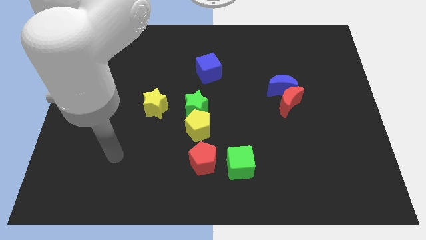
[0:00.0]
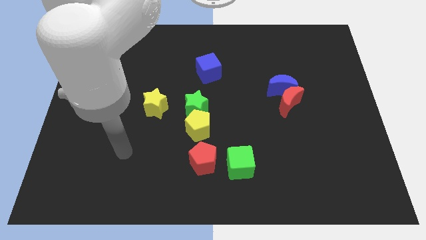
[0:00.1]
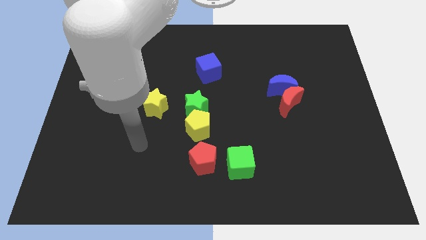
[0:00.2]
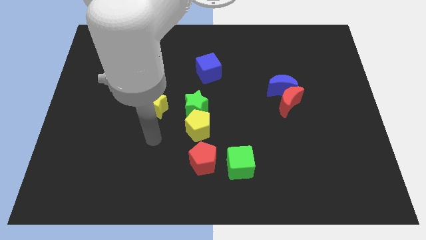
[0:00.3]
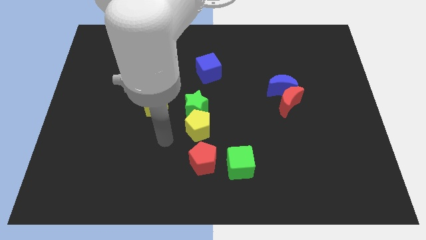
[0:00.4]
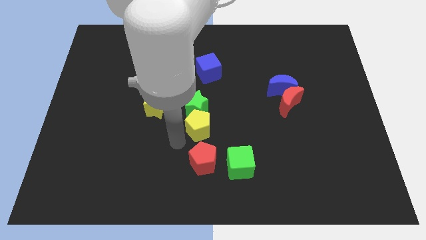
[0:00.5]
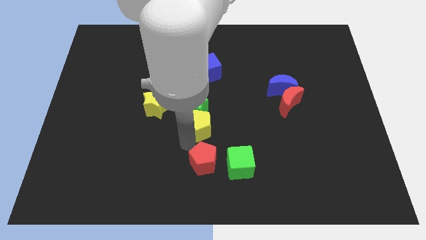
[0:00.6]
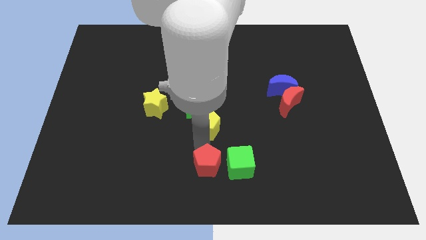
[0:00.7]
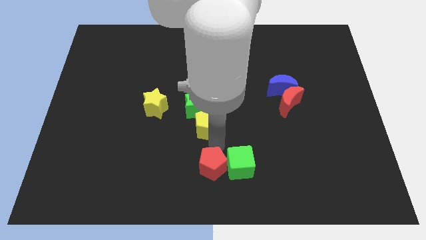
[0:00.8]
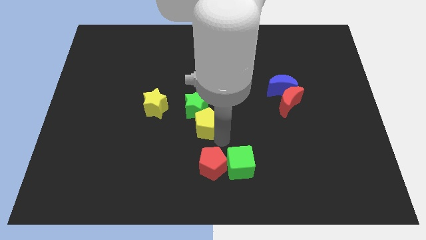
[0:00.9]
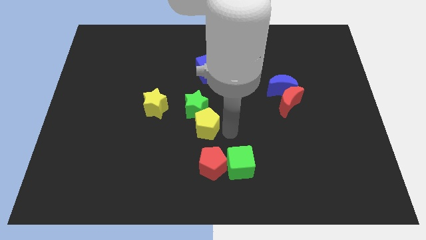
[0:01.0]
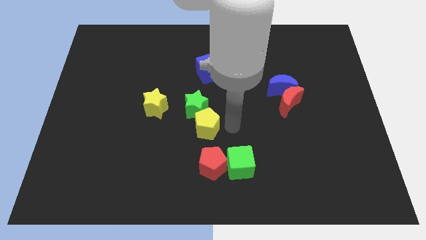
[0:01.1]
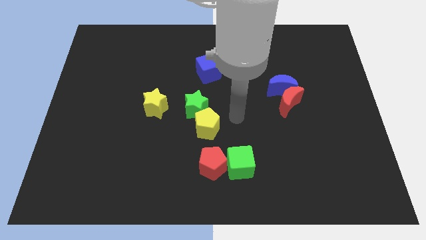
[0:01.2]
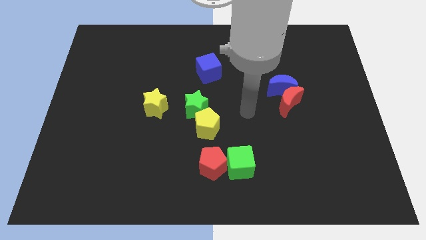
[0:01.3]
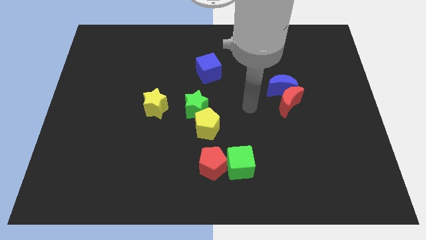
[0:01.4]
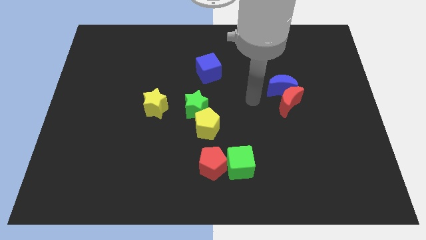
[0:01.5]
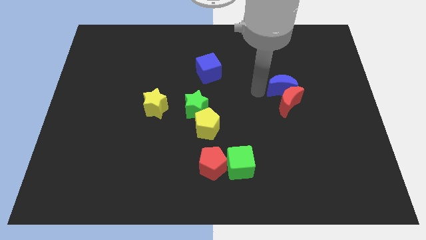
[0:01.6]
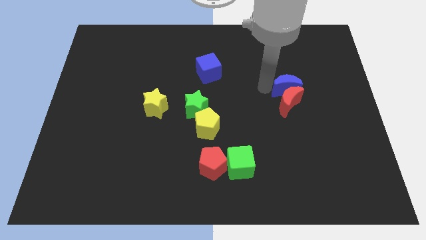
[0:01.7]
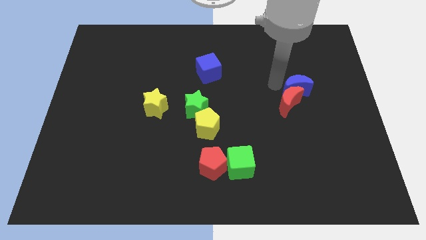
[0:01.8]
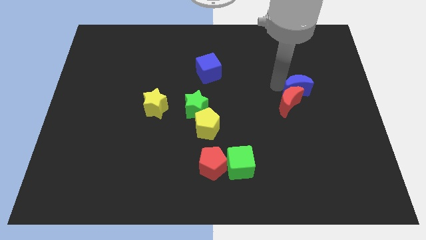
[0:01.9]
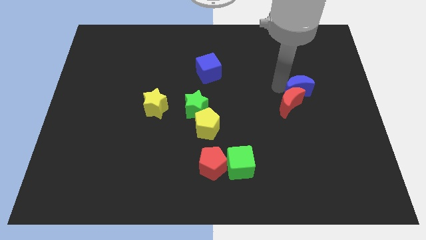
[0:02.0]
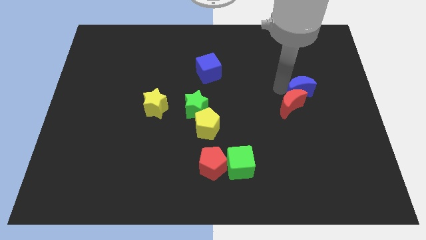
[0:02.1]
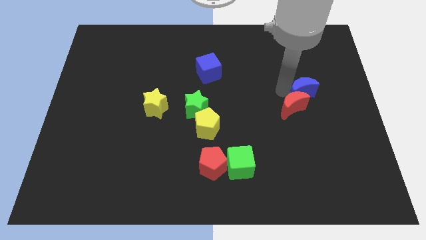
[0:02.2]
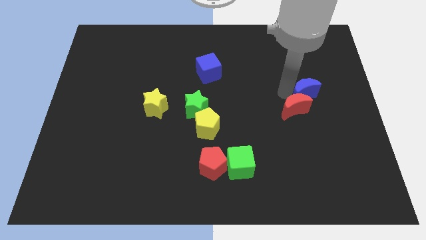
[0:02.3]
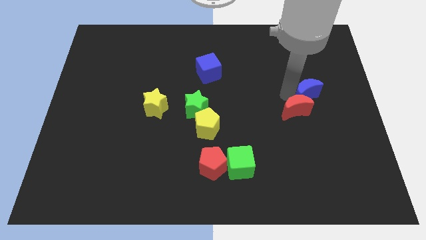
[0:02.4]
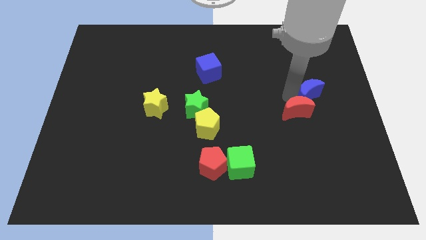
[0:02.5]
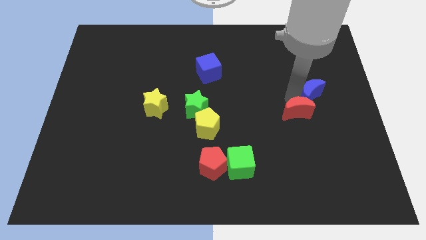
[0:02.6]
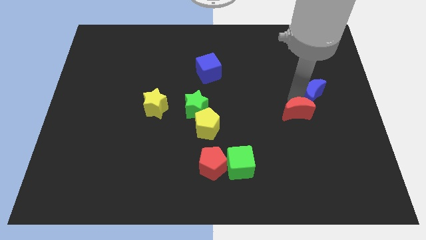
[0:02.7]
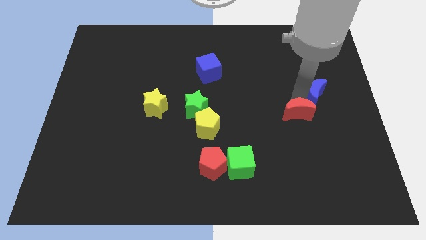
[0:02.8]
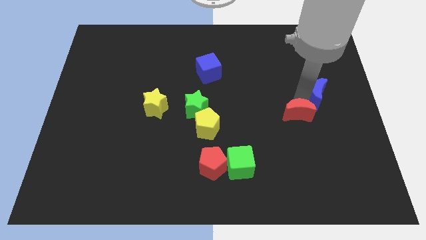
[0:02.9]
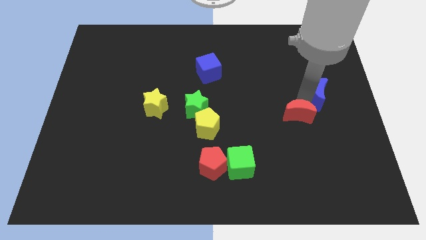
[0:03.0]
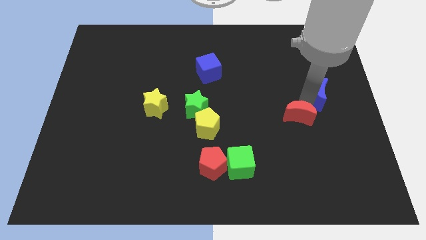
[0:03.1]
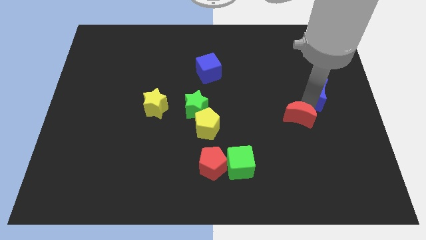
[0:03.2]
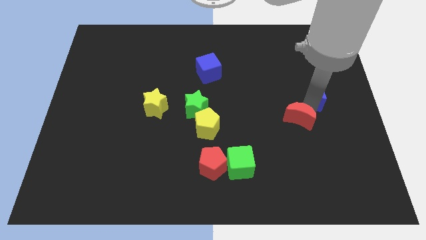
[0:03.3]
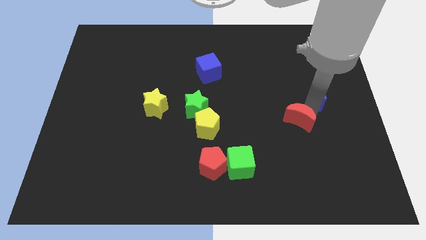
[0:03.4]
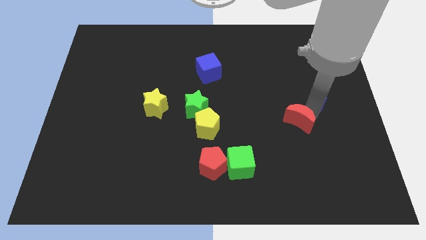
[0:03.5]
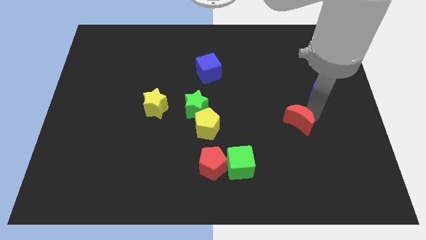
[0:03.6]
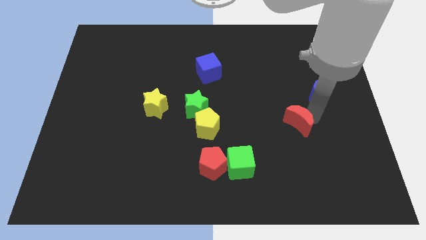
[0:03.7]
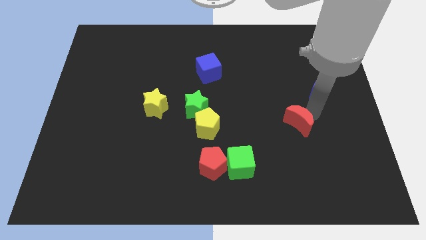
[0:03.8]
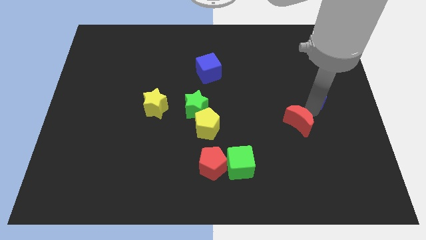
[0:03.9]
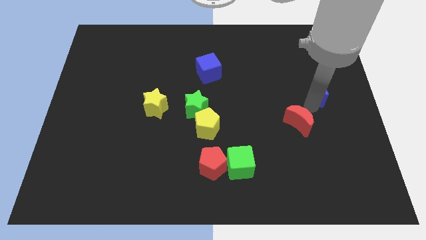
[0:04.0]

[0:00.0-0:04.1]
separate the red moon from the blue moon

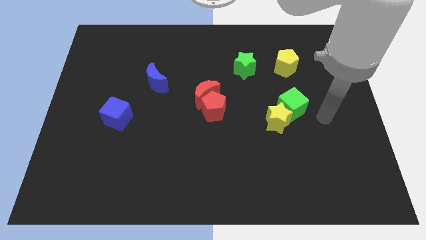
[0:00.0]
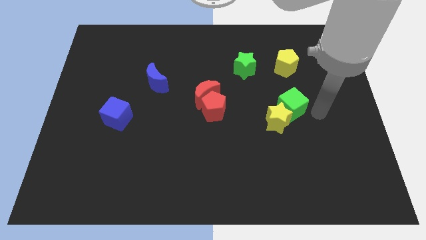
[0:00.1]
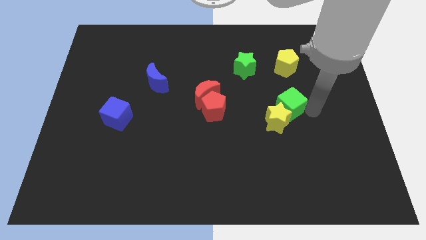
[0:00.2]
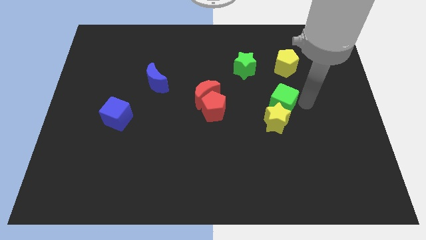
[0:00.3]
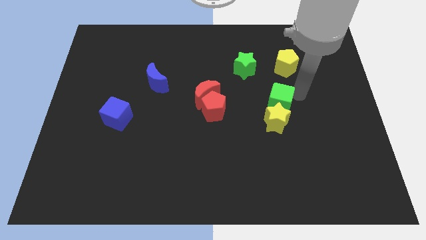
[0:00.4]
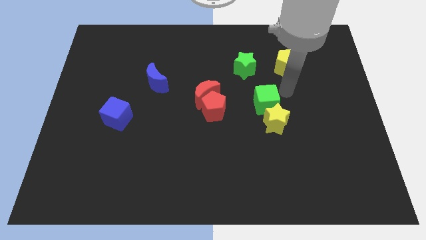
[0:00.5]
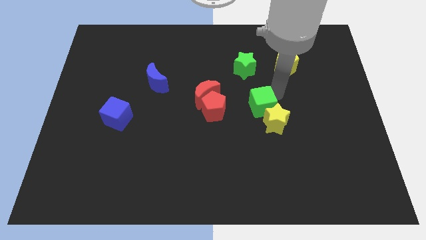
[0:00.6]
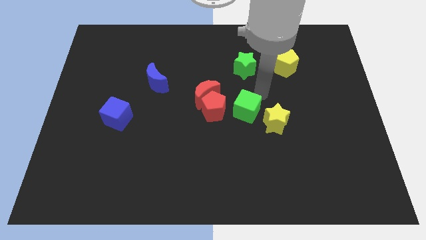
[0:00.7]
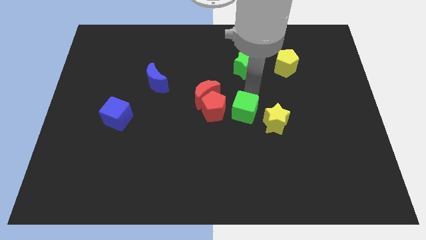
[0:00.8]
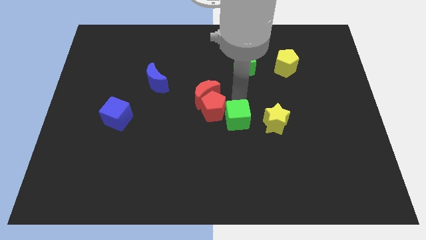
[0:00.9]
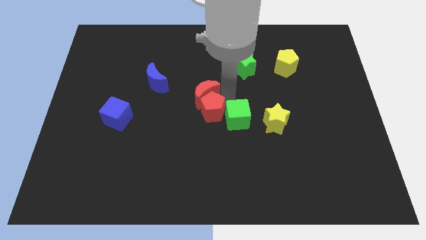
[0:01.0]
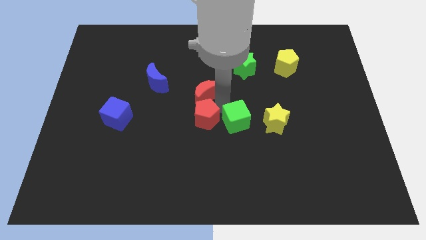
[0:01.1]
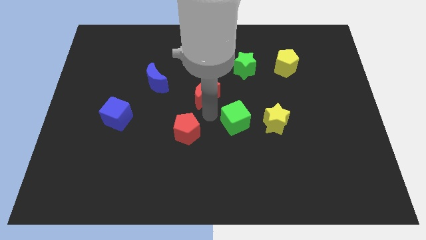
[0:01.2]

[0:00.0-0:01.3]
pull the red moon apart from the red pentagon

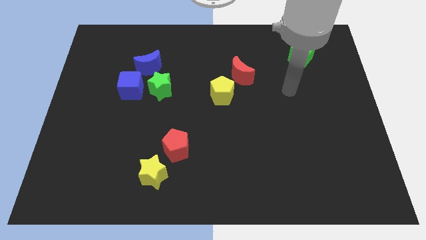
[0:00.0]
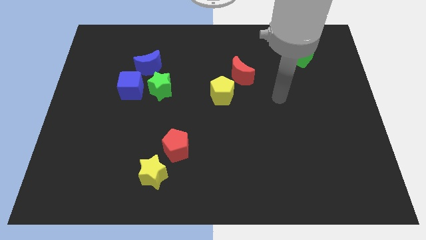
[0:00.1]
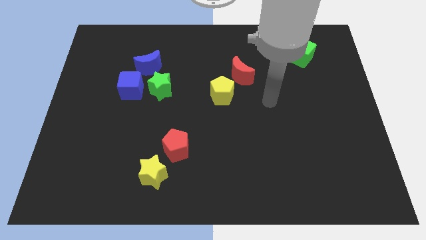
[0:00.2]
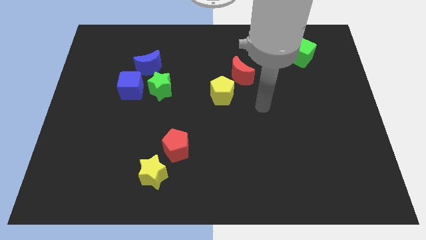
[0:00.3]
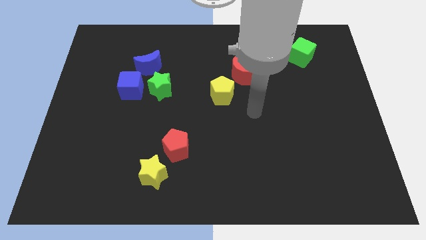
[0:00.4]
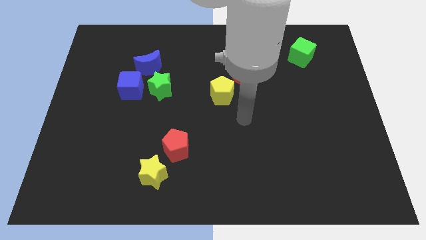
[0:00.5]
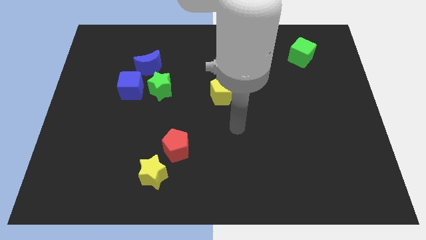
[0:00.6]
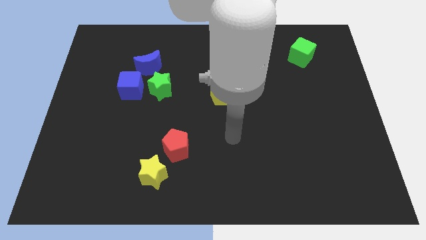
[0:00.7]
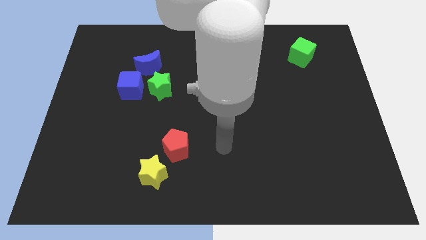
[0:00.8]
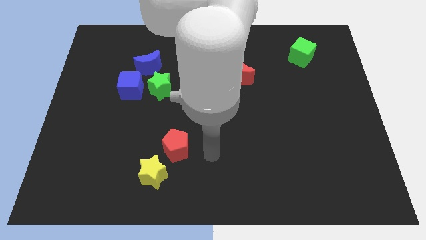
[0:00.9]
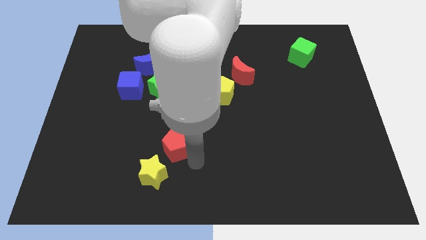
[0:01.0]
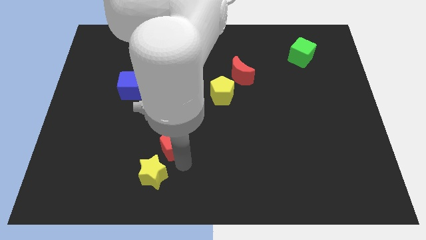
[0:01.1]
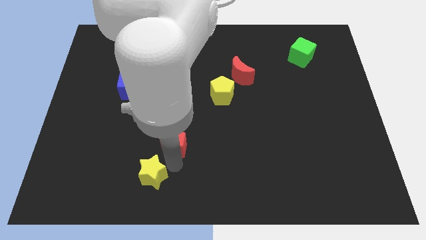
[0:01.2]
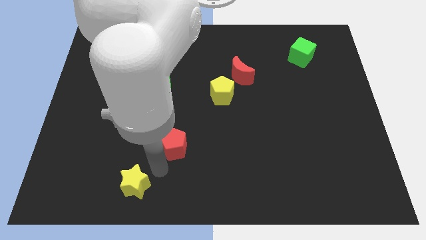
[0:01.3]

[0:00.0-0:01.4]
separate the red pentagon from the yellow star

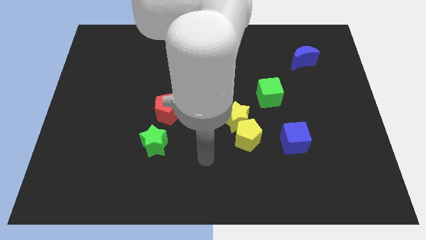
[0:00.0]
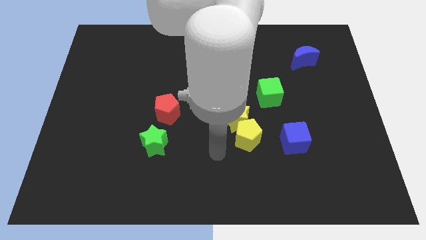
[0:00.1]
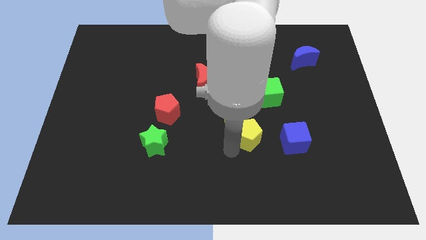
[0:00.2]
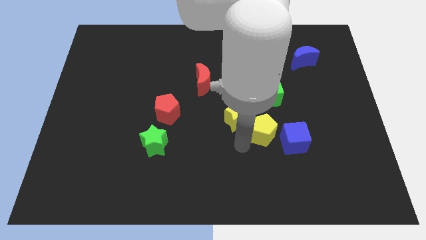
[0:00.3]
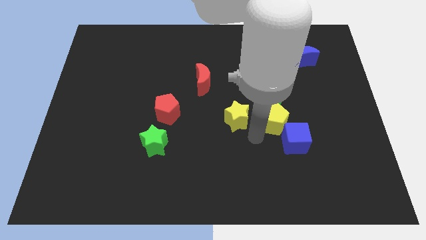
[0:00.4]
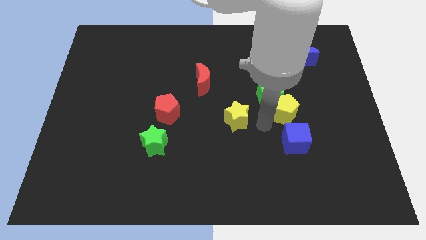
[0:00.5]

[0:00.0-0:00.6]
separate the yellow star from the yellow pentagon

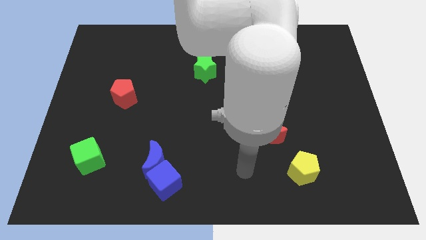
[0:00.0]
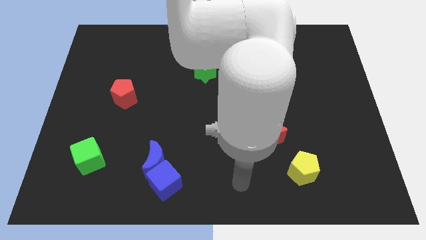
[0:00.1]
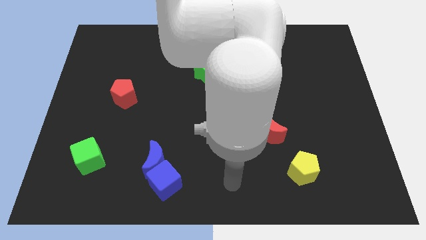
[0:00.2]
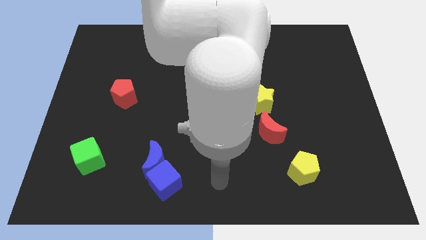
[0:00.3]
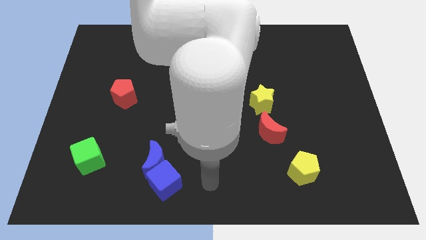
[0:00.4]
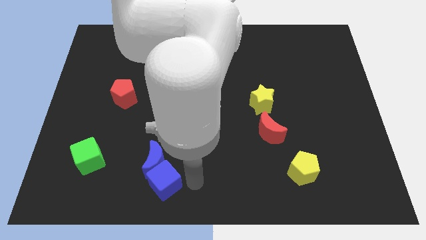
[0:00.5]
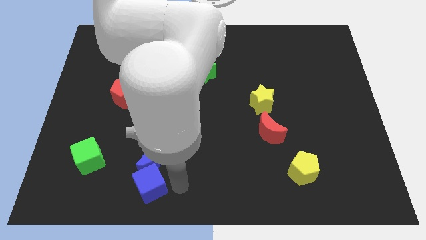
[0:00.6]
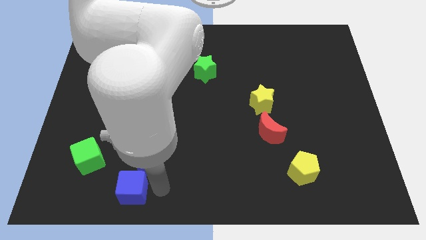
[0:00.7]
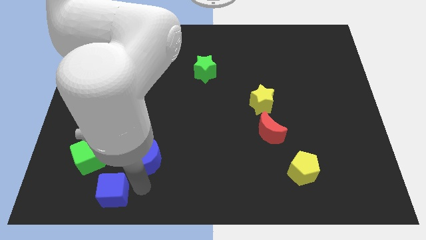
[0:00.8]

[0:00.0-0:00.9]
pull the blue moon apart from the blue cube

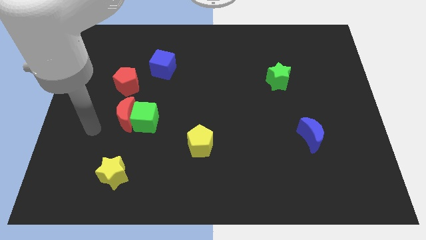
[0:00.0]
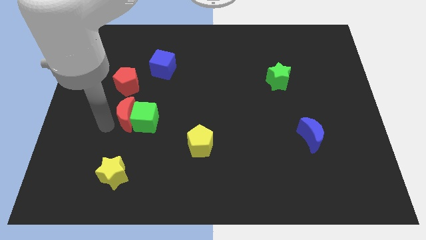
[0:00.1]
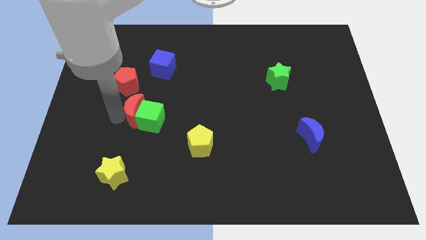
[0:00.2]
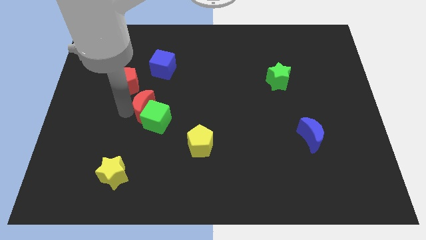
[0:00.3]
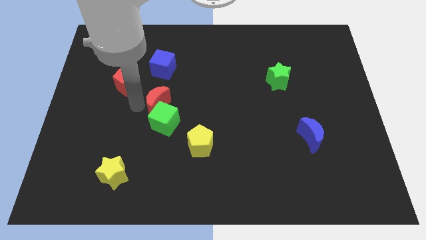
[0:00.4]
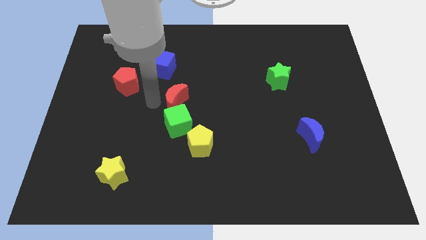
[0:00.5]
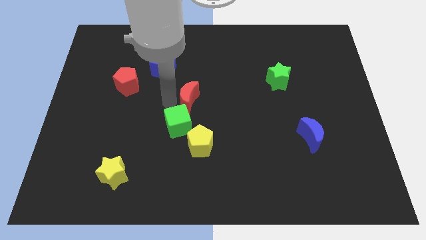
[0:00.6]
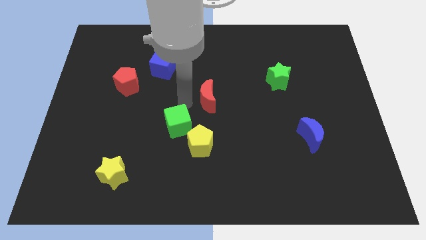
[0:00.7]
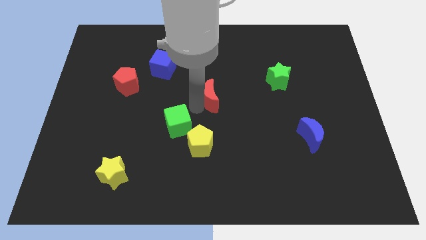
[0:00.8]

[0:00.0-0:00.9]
separate the green cube from the red moon
